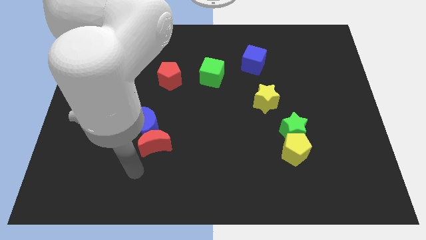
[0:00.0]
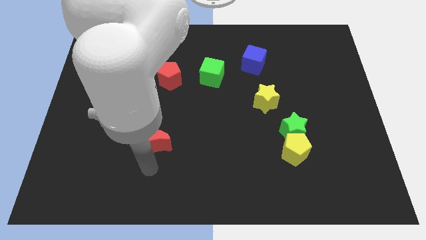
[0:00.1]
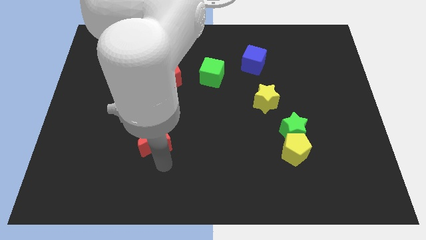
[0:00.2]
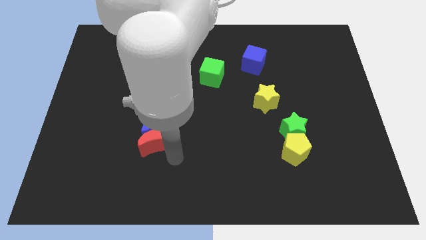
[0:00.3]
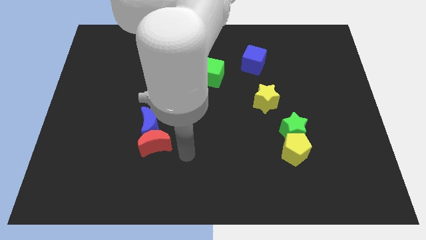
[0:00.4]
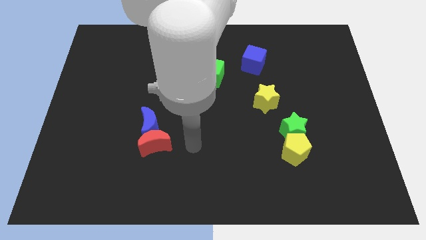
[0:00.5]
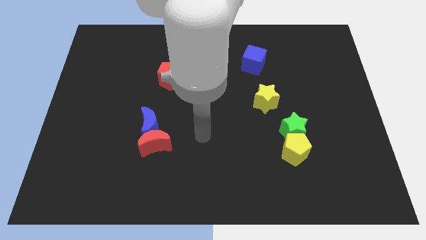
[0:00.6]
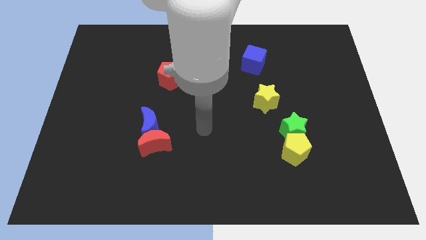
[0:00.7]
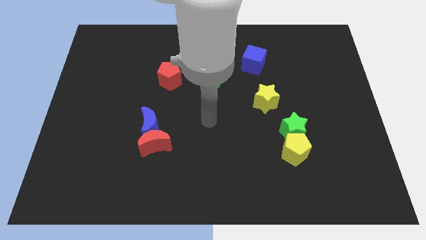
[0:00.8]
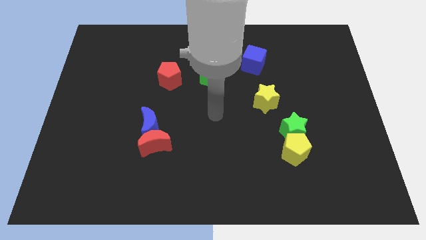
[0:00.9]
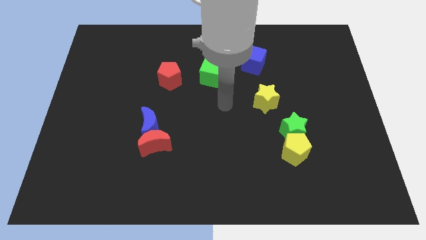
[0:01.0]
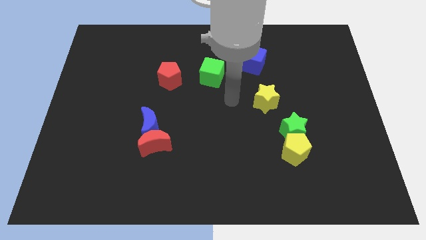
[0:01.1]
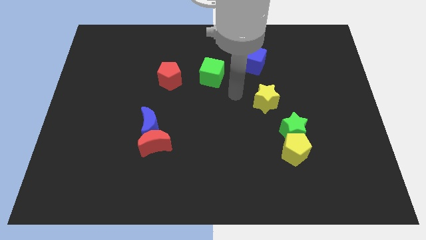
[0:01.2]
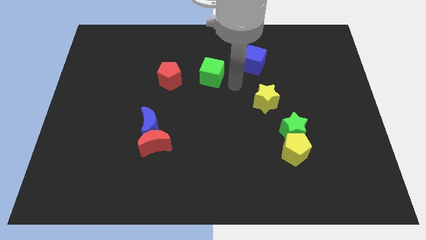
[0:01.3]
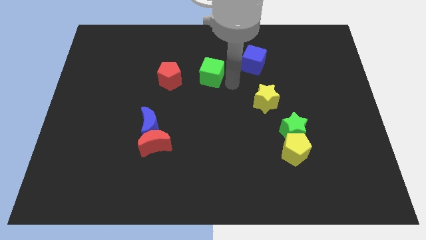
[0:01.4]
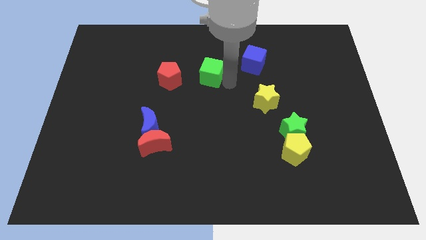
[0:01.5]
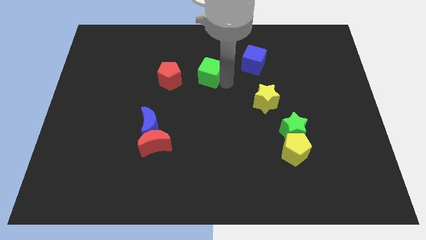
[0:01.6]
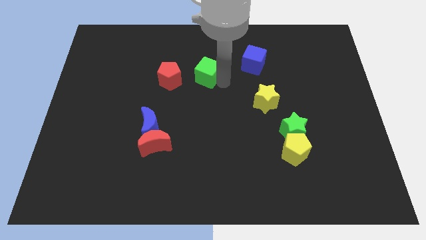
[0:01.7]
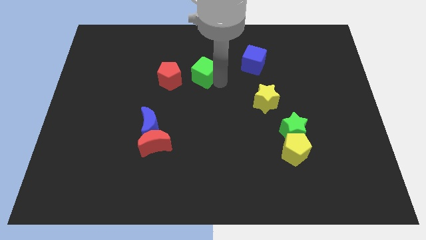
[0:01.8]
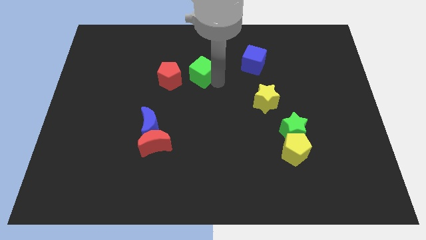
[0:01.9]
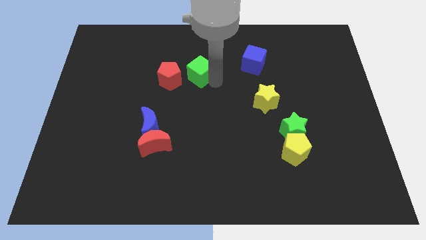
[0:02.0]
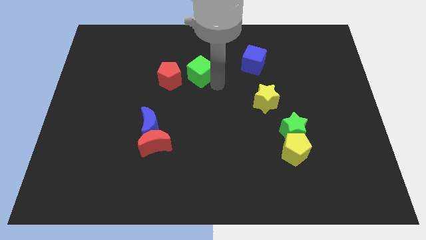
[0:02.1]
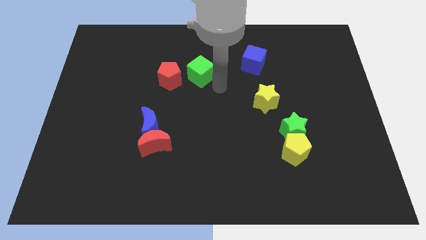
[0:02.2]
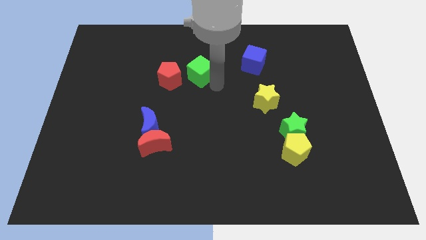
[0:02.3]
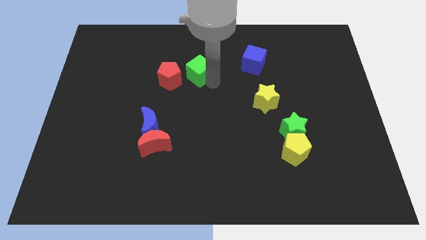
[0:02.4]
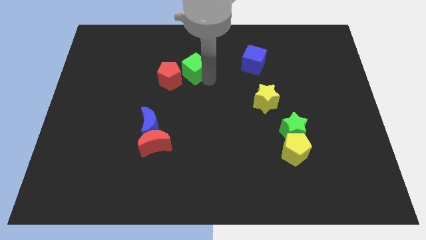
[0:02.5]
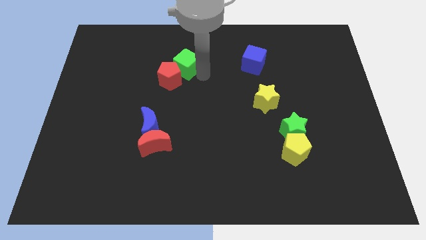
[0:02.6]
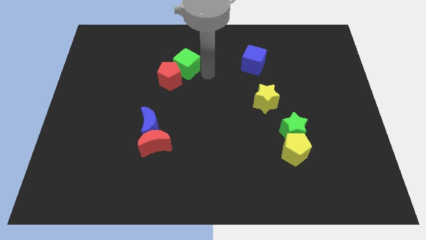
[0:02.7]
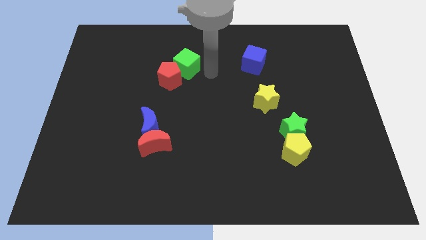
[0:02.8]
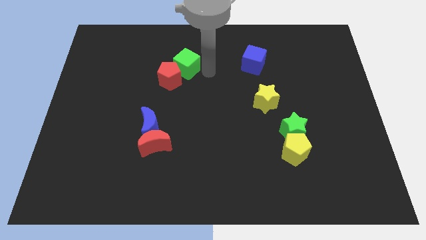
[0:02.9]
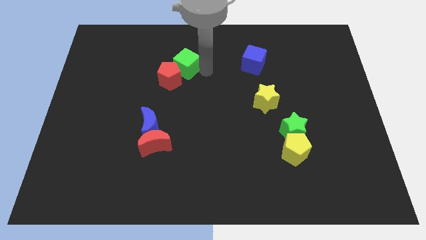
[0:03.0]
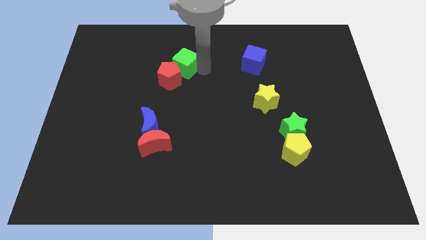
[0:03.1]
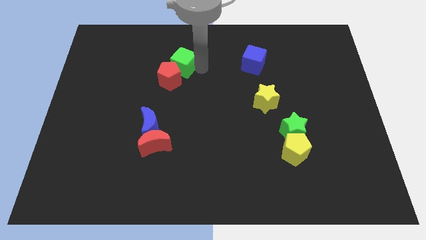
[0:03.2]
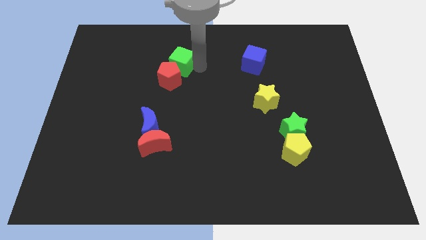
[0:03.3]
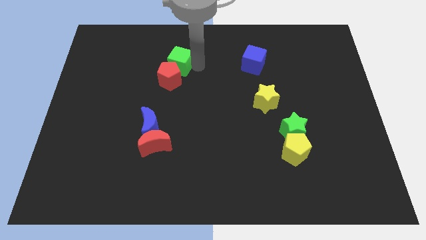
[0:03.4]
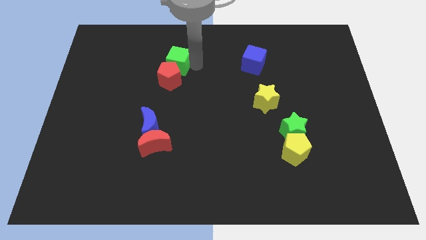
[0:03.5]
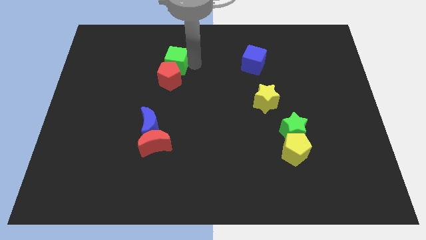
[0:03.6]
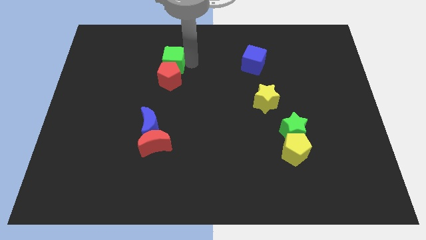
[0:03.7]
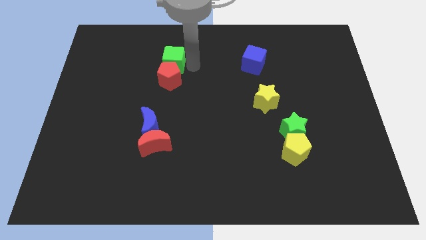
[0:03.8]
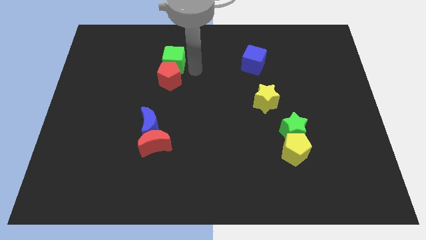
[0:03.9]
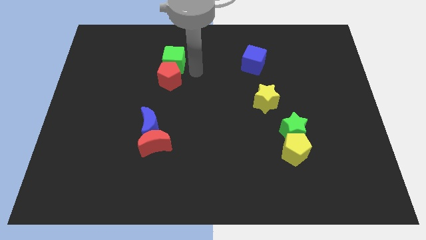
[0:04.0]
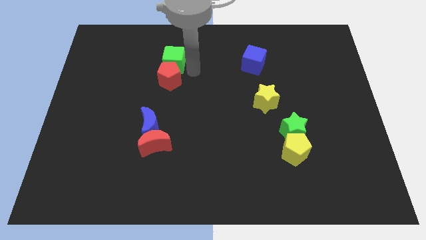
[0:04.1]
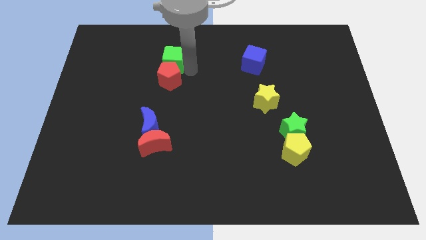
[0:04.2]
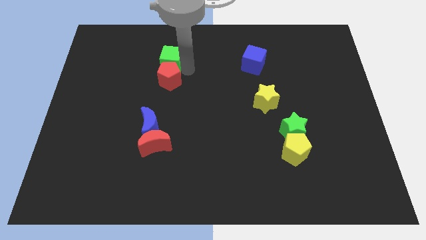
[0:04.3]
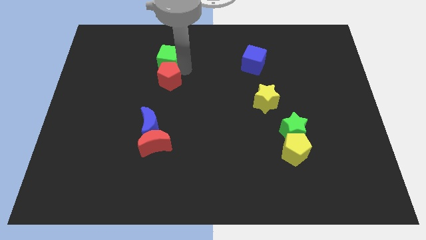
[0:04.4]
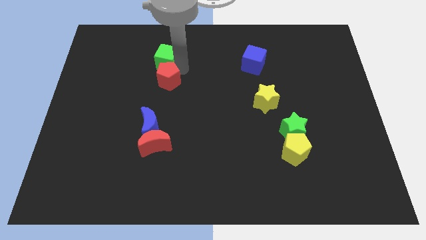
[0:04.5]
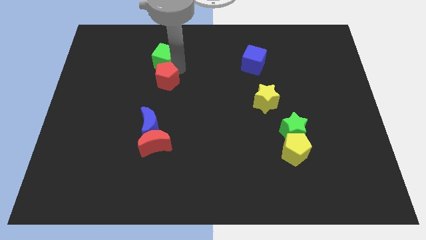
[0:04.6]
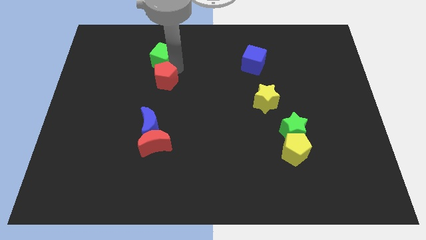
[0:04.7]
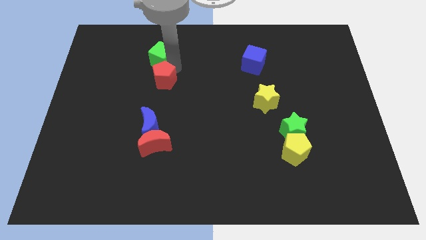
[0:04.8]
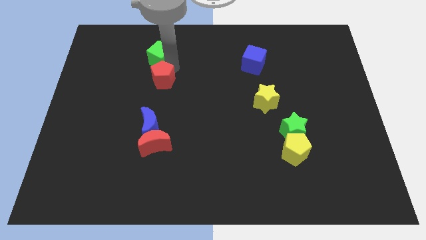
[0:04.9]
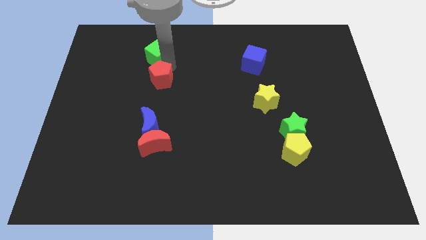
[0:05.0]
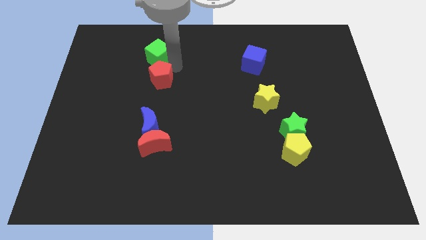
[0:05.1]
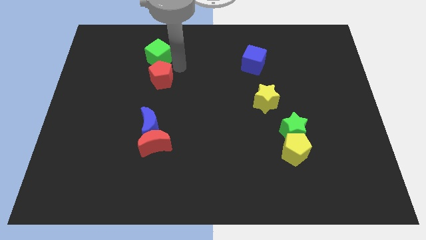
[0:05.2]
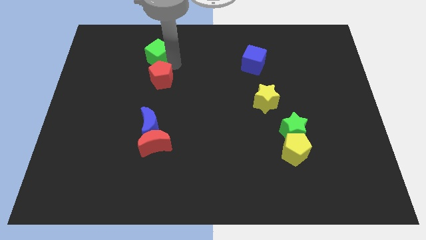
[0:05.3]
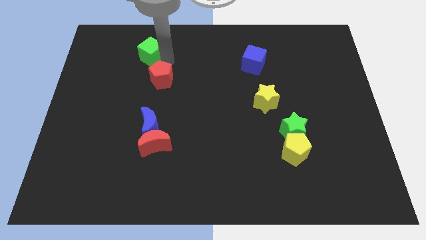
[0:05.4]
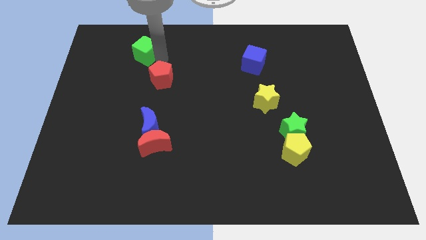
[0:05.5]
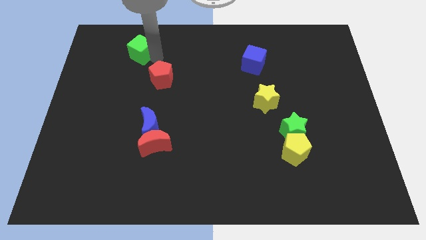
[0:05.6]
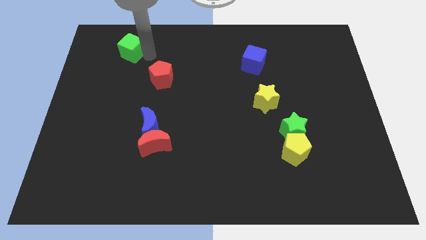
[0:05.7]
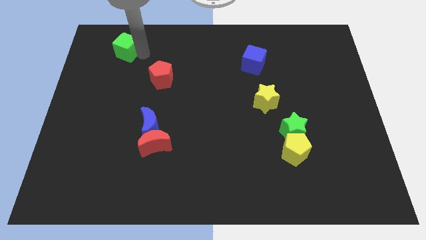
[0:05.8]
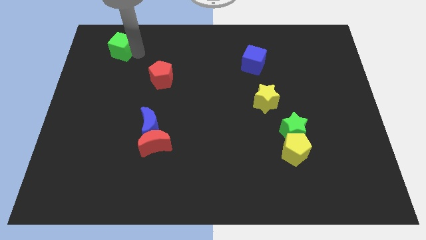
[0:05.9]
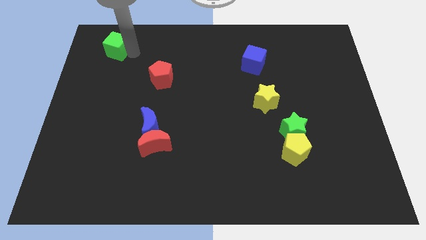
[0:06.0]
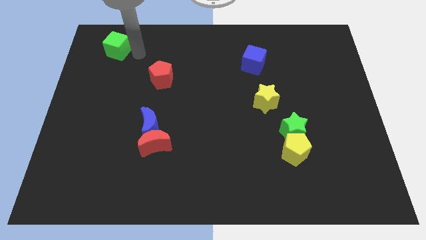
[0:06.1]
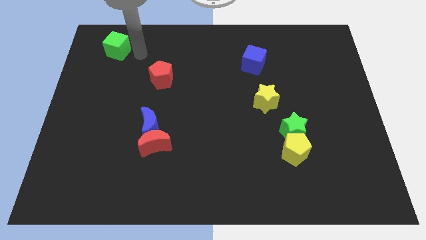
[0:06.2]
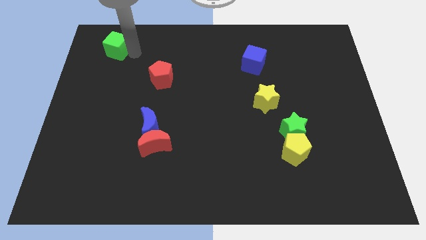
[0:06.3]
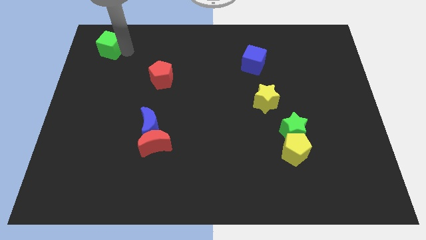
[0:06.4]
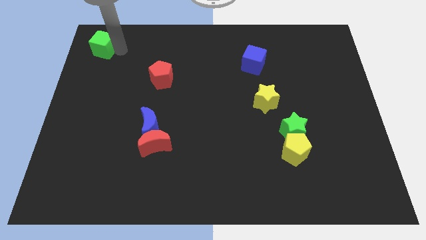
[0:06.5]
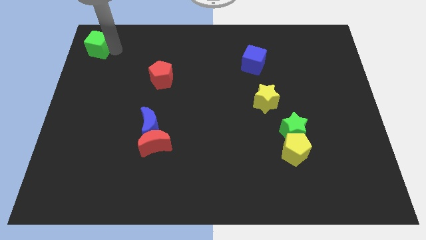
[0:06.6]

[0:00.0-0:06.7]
put the green cube to the top left

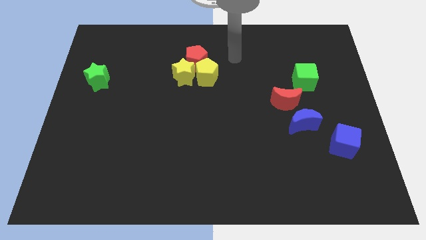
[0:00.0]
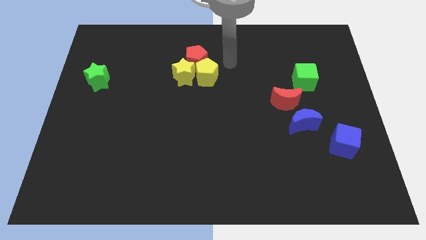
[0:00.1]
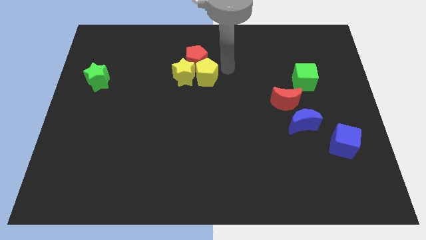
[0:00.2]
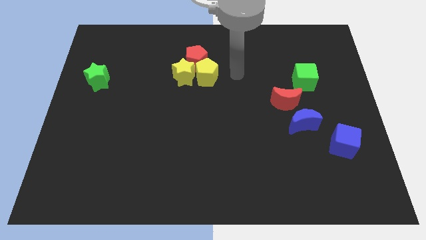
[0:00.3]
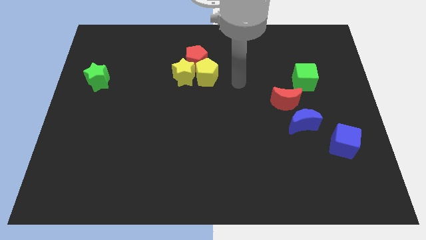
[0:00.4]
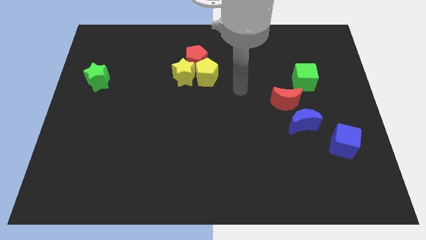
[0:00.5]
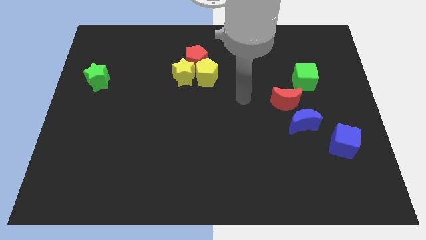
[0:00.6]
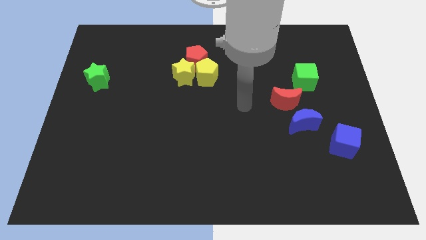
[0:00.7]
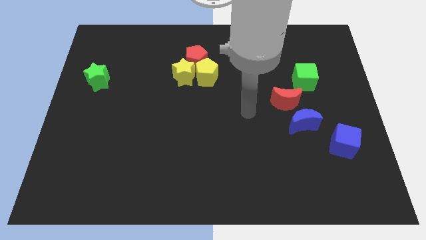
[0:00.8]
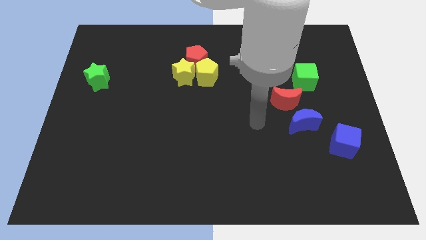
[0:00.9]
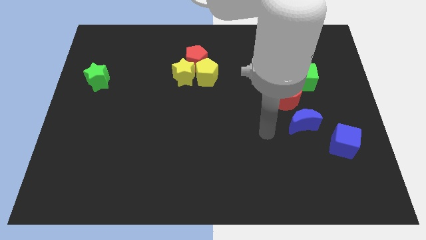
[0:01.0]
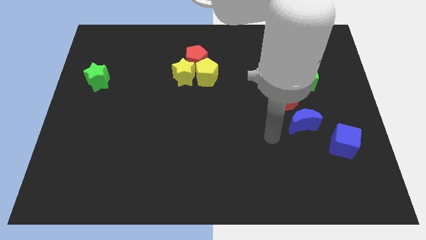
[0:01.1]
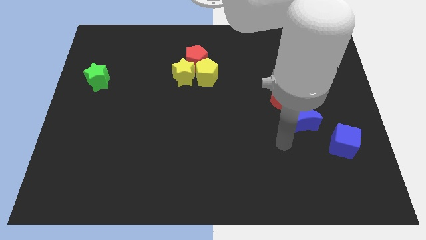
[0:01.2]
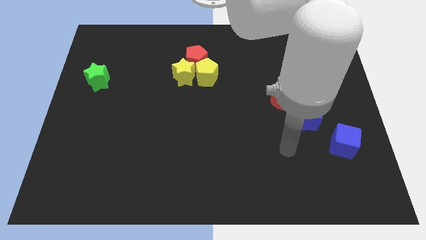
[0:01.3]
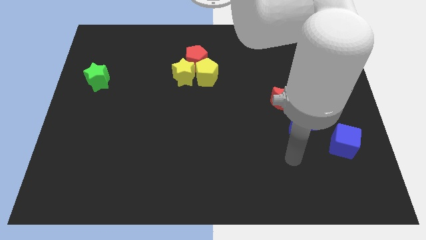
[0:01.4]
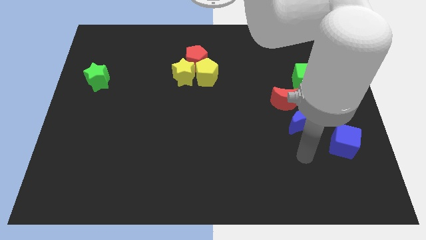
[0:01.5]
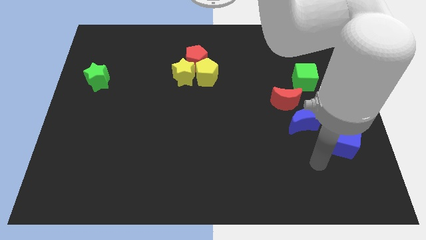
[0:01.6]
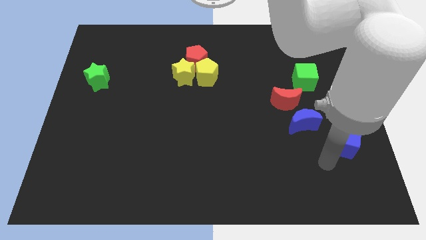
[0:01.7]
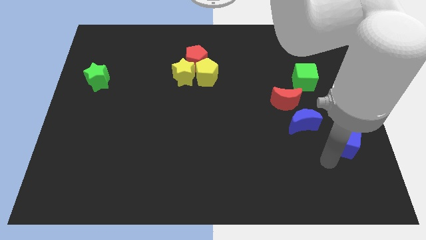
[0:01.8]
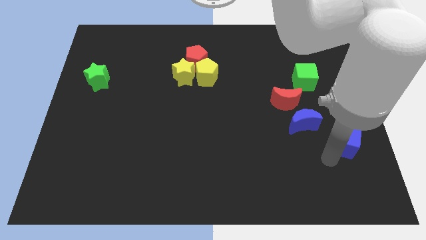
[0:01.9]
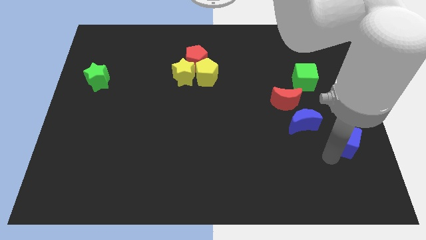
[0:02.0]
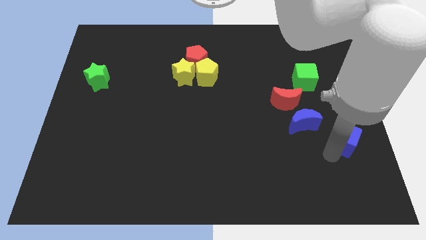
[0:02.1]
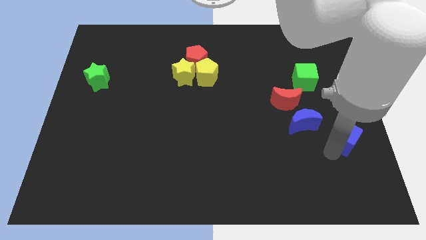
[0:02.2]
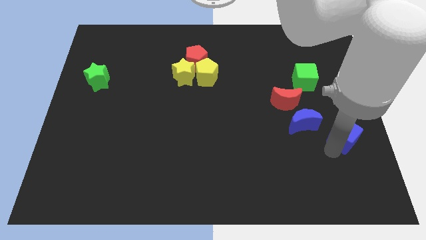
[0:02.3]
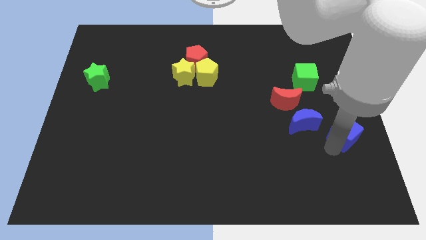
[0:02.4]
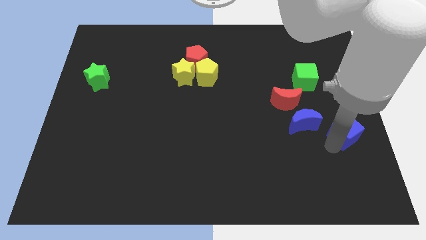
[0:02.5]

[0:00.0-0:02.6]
slide the blue cube to the right side
